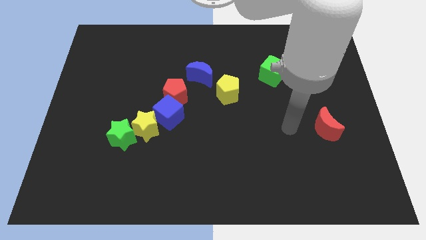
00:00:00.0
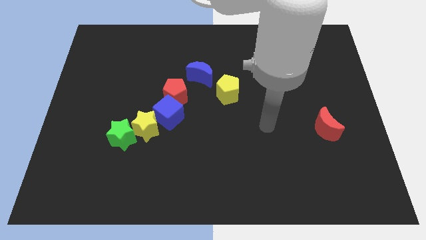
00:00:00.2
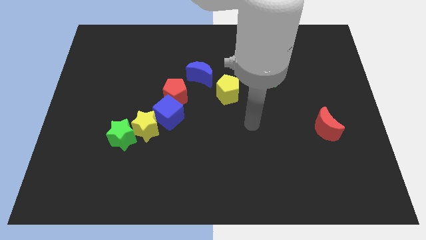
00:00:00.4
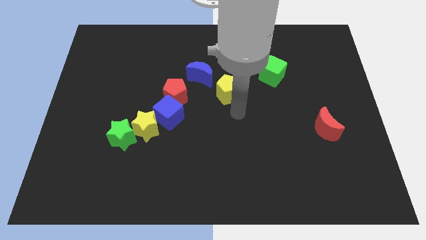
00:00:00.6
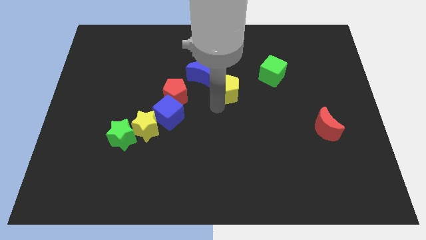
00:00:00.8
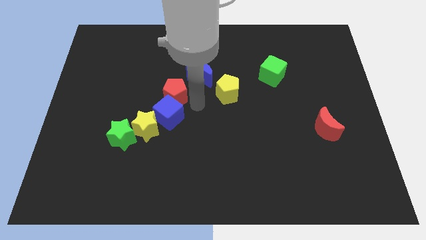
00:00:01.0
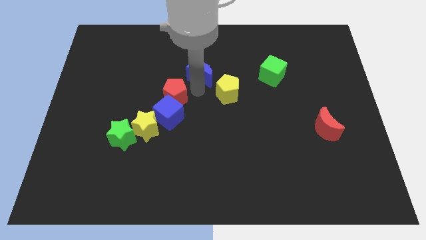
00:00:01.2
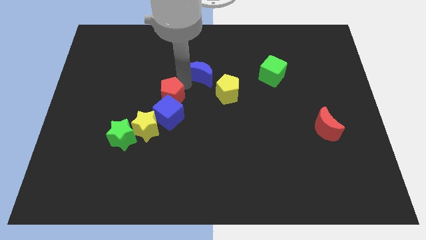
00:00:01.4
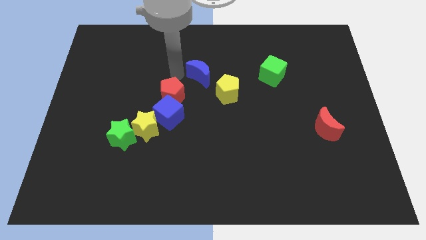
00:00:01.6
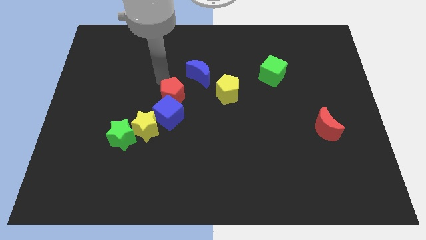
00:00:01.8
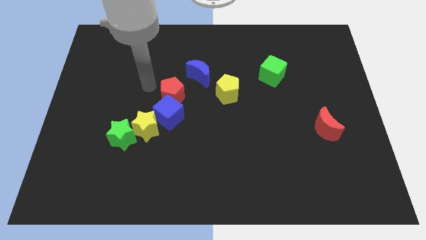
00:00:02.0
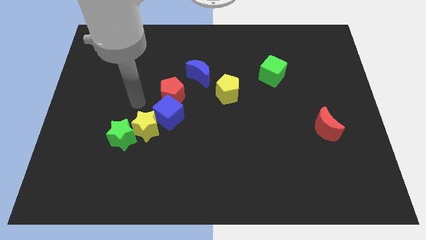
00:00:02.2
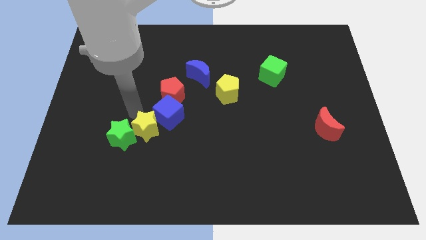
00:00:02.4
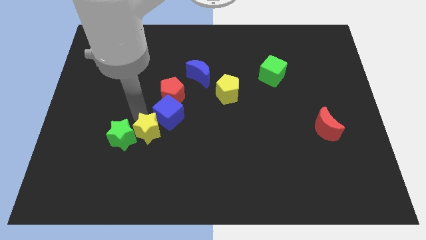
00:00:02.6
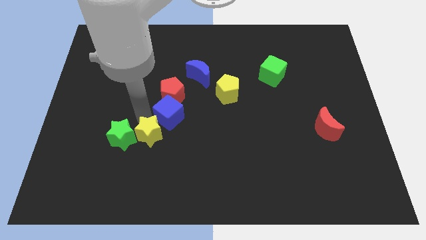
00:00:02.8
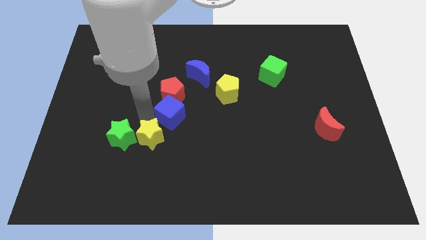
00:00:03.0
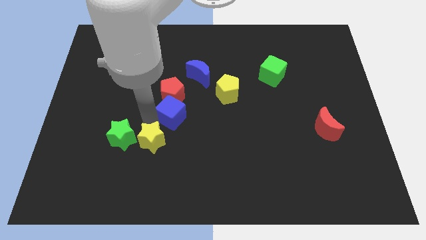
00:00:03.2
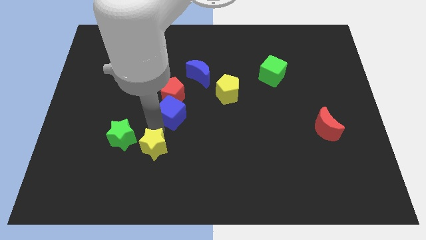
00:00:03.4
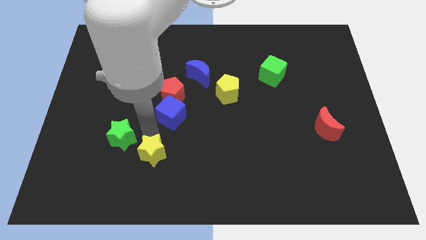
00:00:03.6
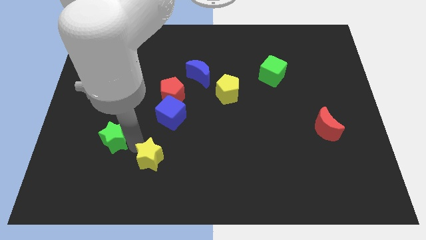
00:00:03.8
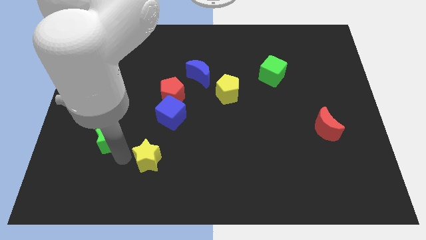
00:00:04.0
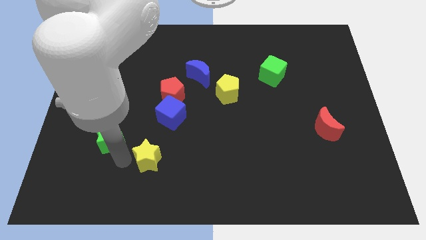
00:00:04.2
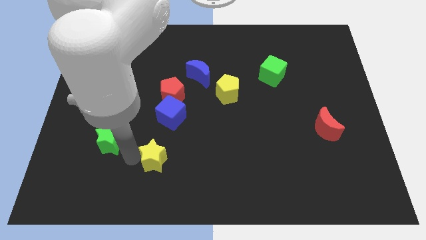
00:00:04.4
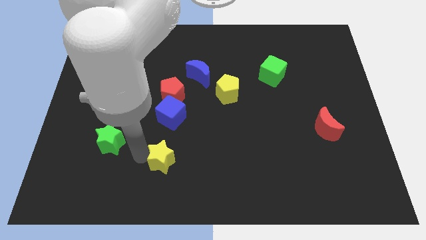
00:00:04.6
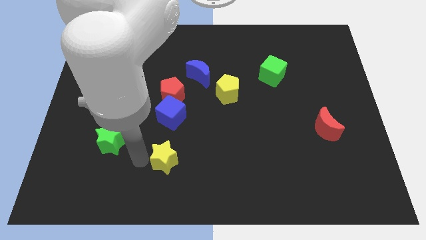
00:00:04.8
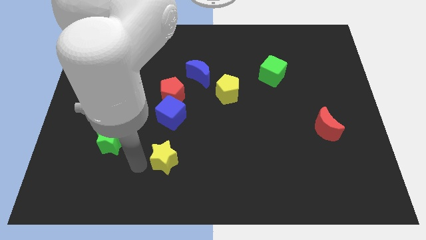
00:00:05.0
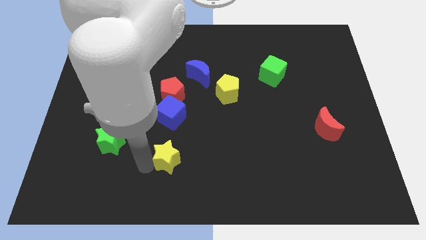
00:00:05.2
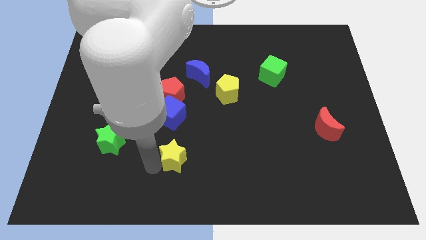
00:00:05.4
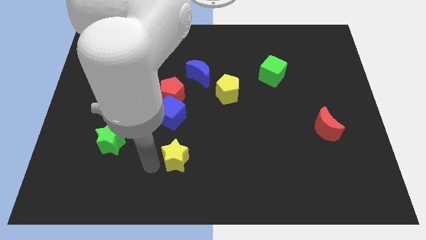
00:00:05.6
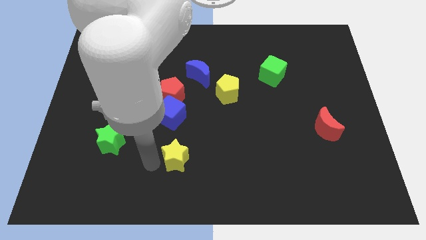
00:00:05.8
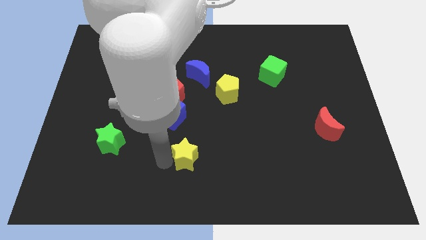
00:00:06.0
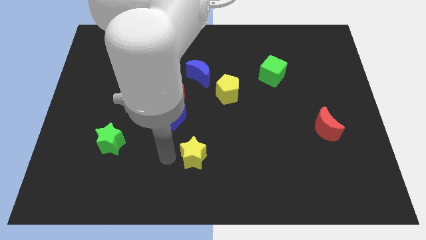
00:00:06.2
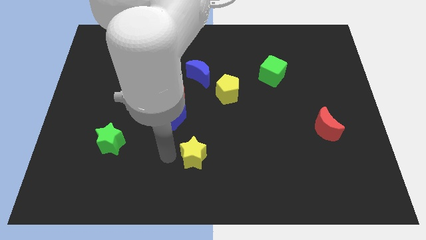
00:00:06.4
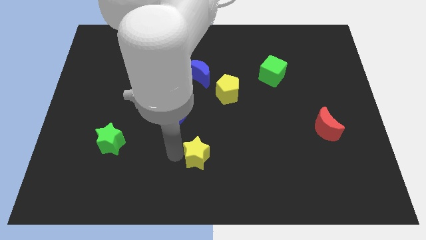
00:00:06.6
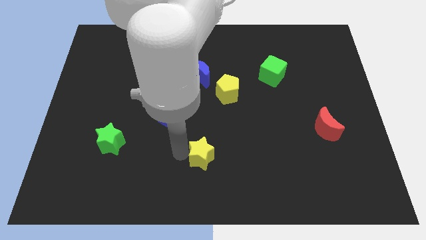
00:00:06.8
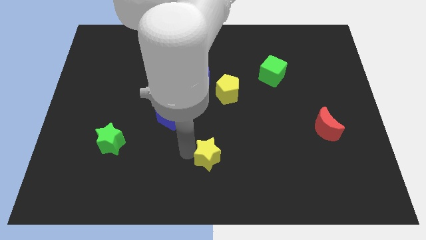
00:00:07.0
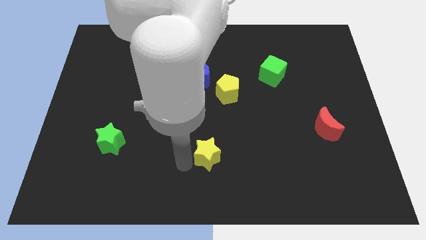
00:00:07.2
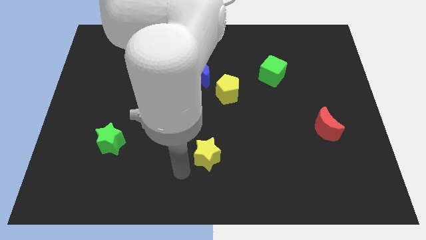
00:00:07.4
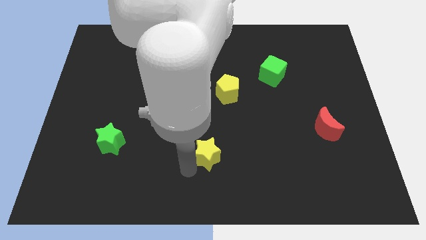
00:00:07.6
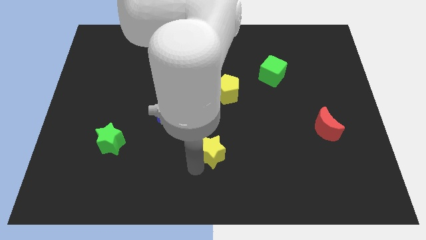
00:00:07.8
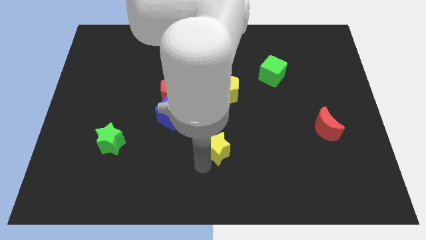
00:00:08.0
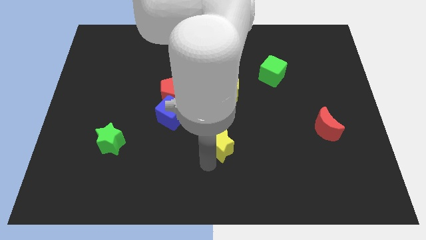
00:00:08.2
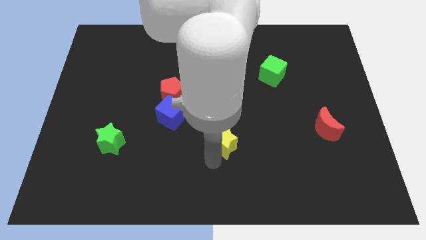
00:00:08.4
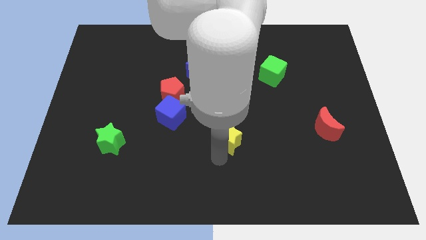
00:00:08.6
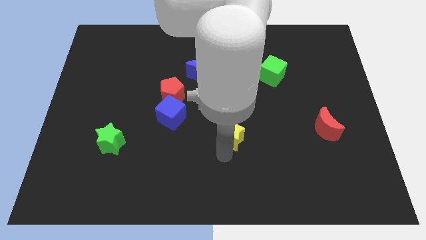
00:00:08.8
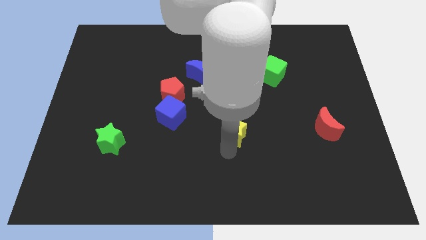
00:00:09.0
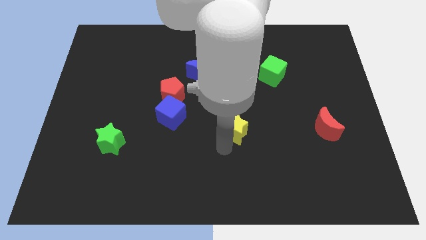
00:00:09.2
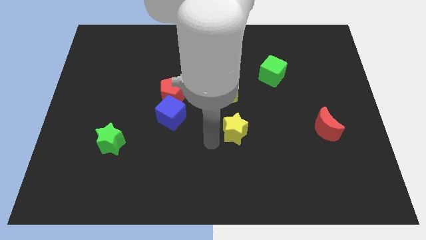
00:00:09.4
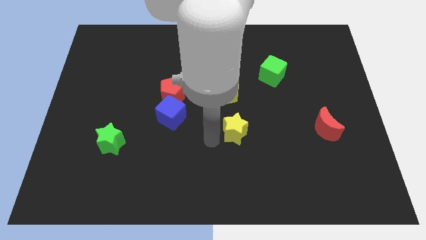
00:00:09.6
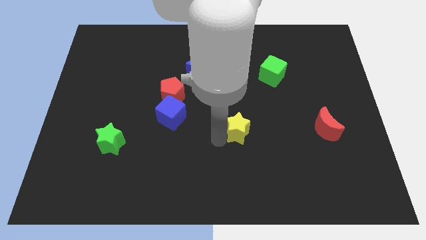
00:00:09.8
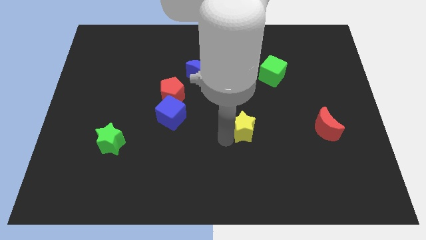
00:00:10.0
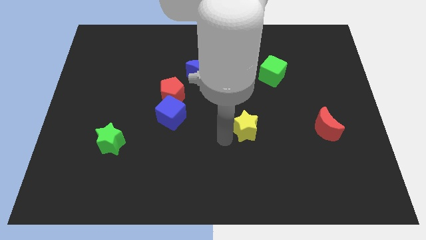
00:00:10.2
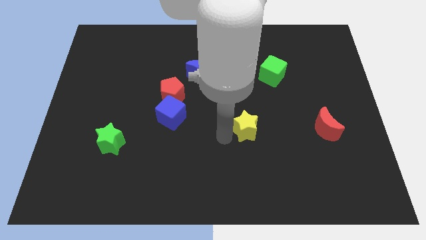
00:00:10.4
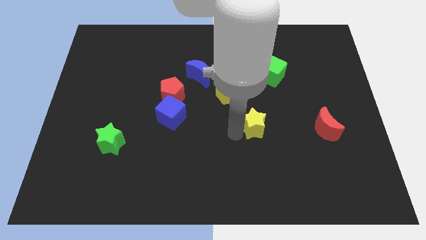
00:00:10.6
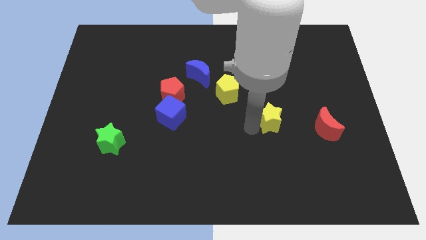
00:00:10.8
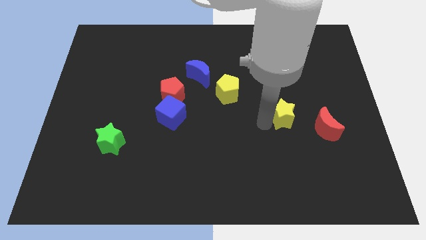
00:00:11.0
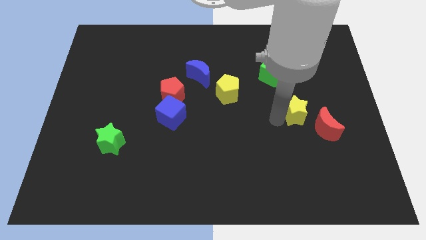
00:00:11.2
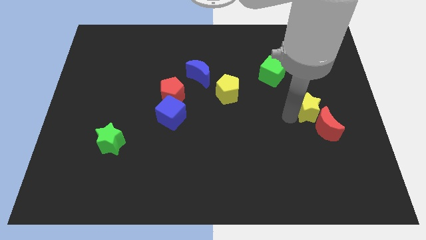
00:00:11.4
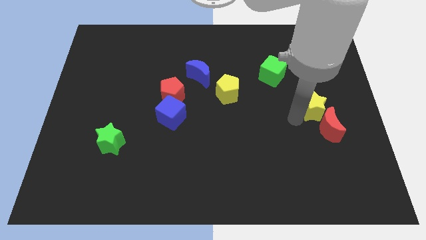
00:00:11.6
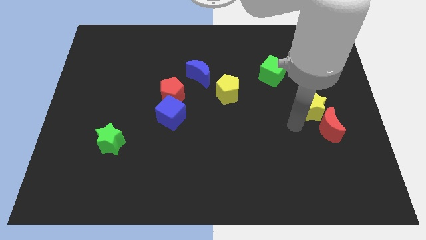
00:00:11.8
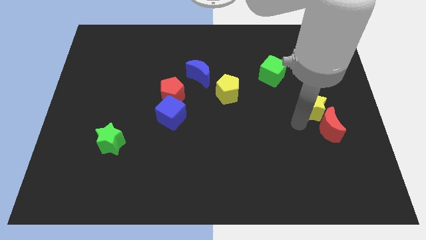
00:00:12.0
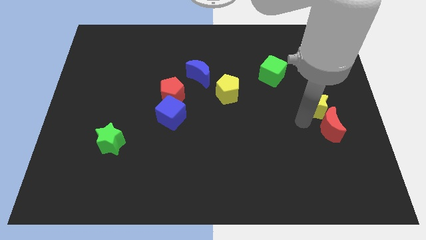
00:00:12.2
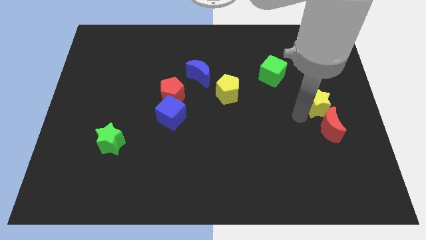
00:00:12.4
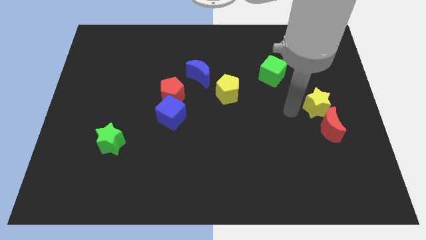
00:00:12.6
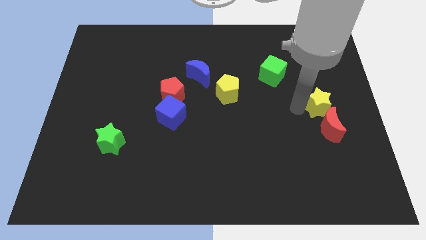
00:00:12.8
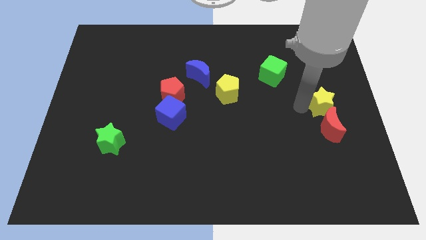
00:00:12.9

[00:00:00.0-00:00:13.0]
move the yellow star to the center right
